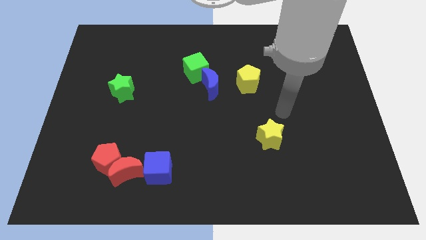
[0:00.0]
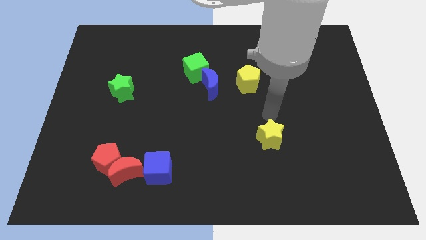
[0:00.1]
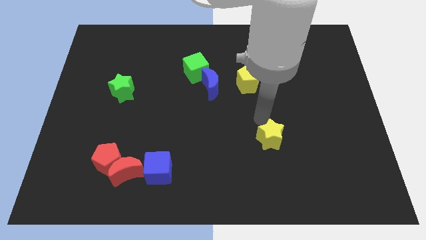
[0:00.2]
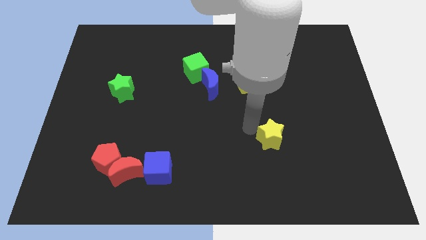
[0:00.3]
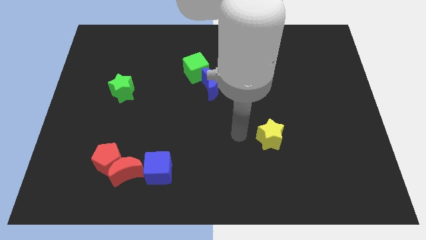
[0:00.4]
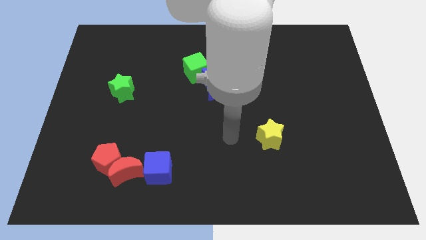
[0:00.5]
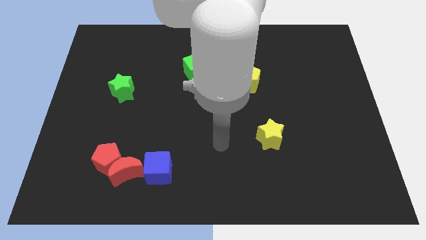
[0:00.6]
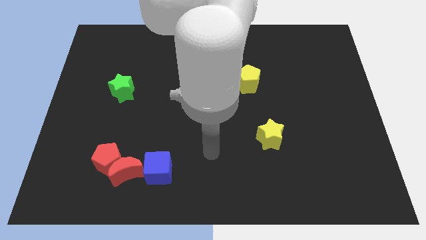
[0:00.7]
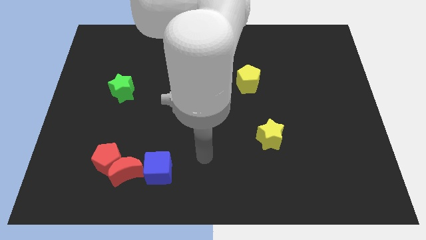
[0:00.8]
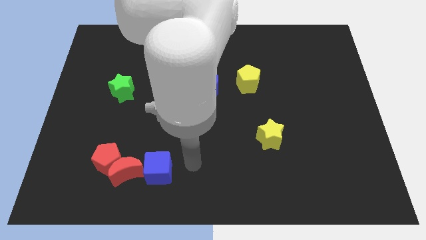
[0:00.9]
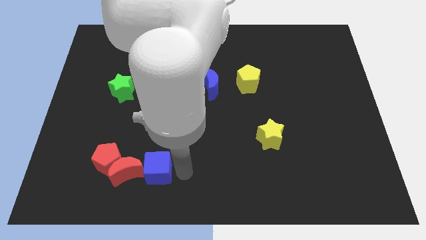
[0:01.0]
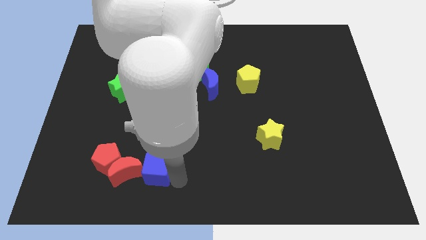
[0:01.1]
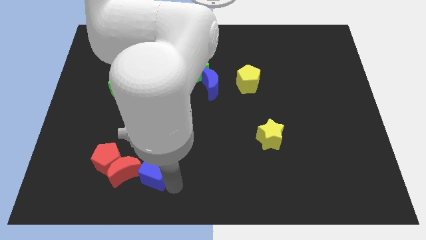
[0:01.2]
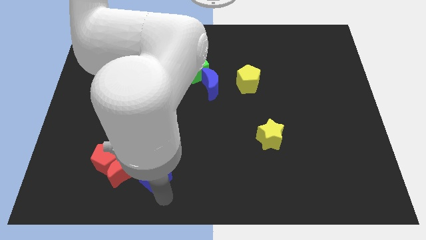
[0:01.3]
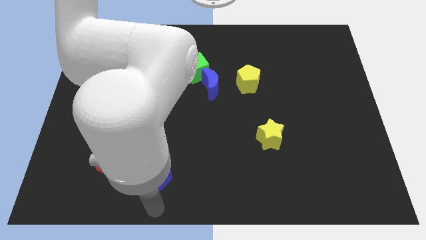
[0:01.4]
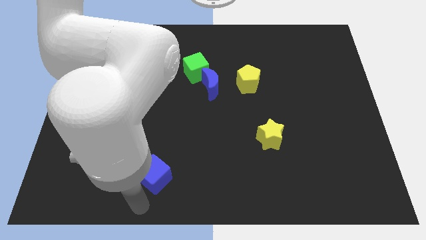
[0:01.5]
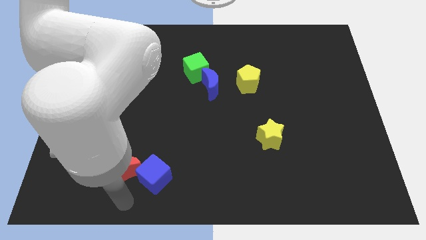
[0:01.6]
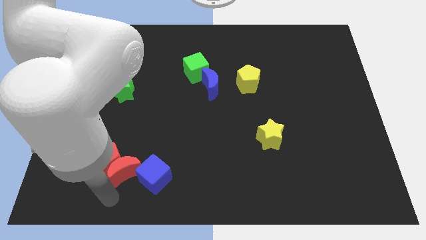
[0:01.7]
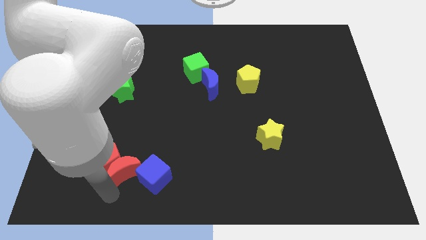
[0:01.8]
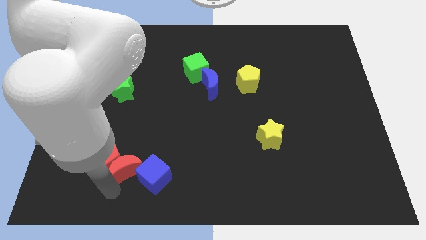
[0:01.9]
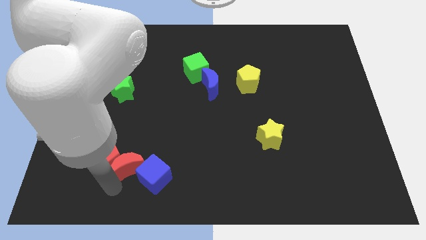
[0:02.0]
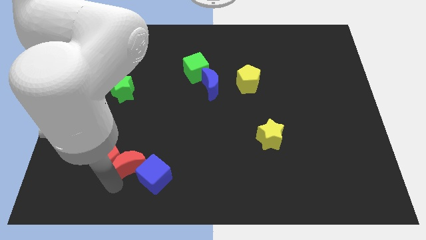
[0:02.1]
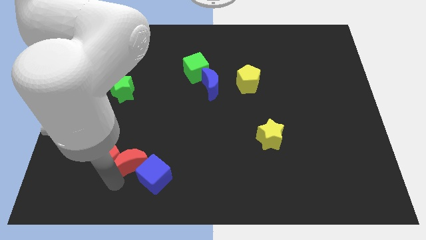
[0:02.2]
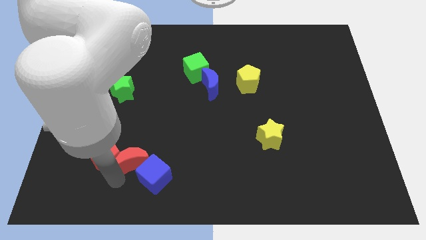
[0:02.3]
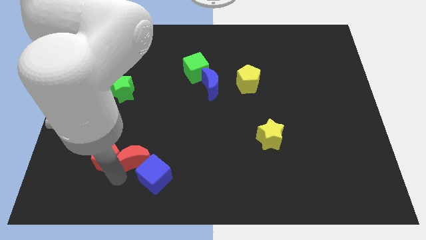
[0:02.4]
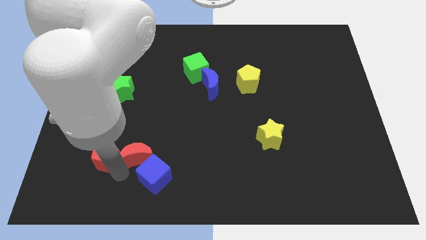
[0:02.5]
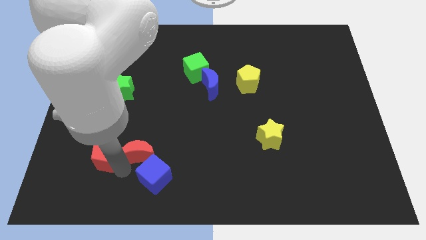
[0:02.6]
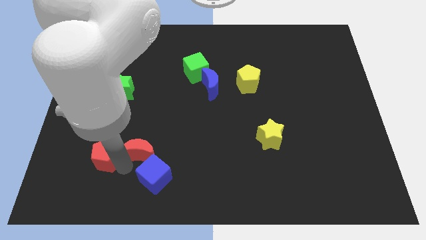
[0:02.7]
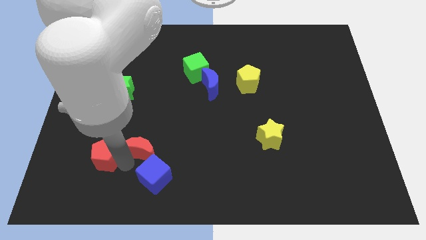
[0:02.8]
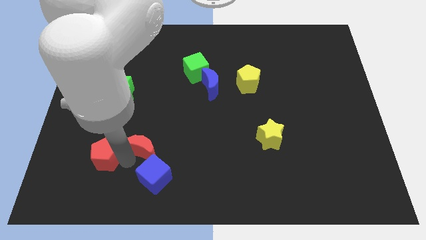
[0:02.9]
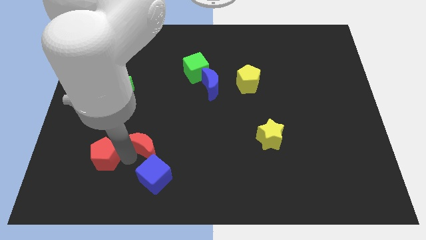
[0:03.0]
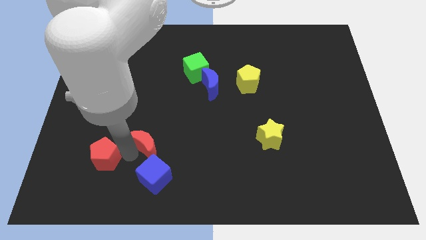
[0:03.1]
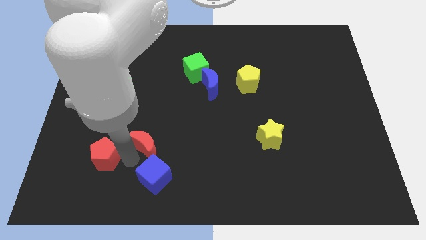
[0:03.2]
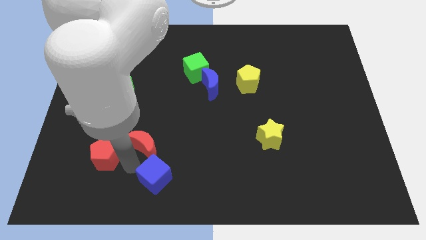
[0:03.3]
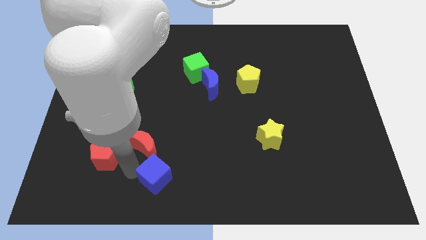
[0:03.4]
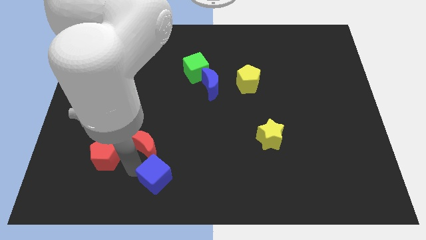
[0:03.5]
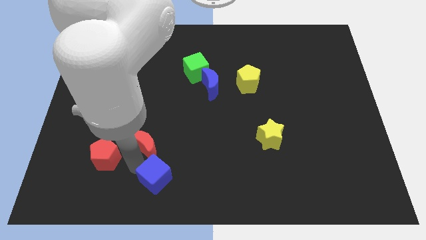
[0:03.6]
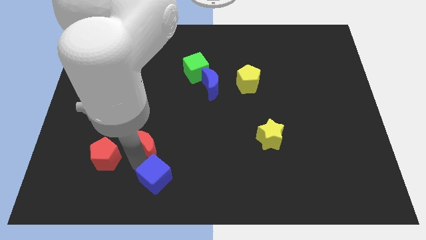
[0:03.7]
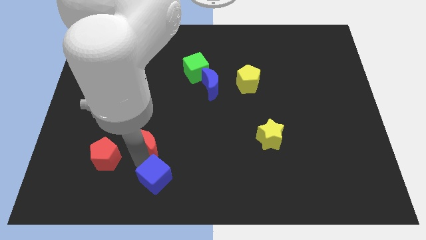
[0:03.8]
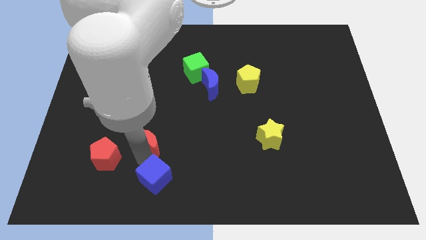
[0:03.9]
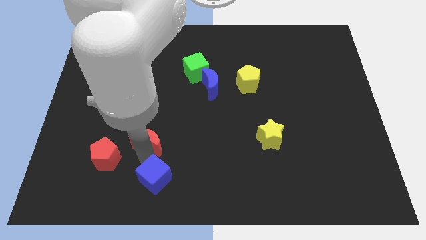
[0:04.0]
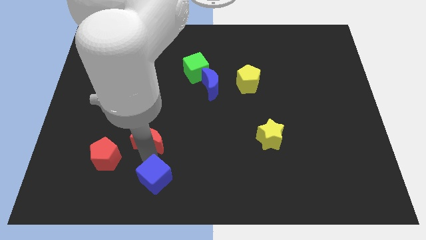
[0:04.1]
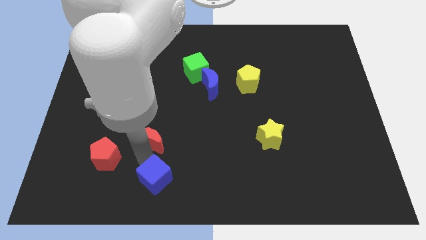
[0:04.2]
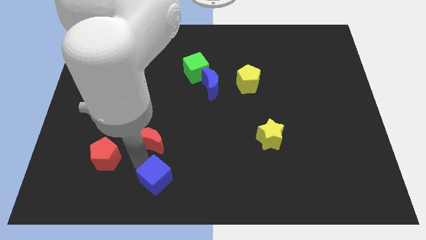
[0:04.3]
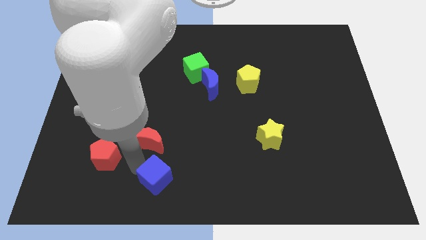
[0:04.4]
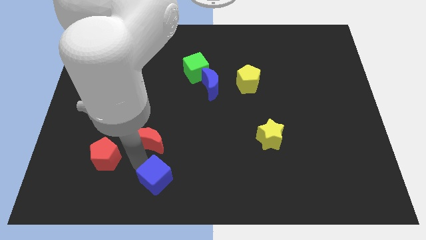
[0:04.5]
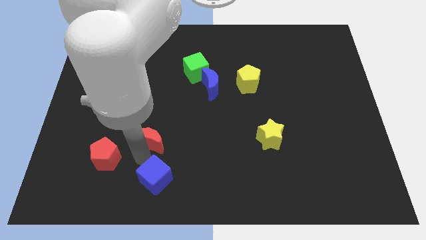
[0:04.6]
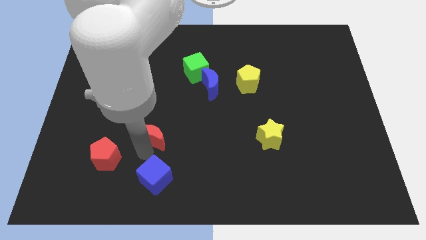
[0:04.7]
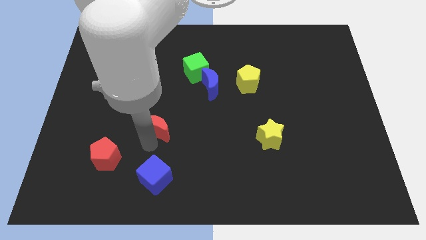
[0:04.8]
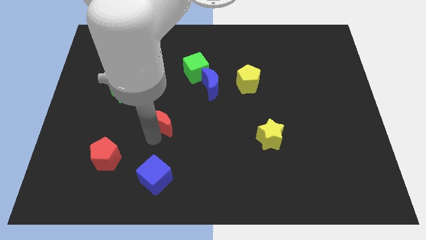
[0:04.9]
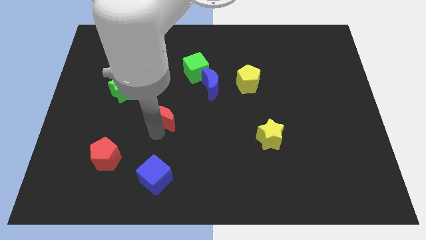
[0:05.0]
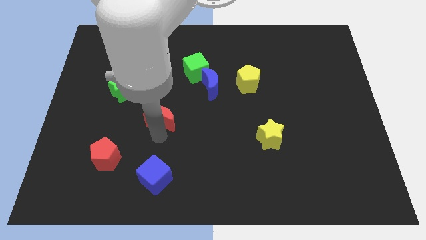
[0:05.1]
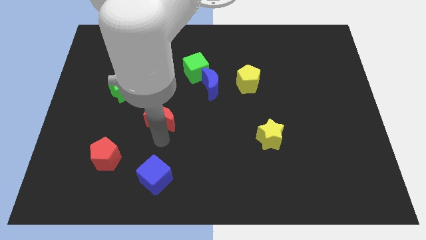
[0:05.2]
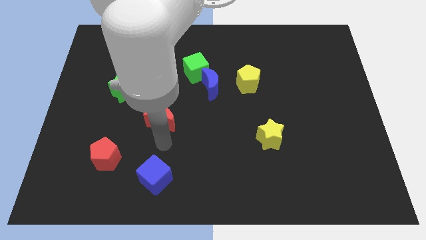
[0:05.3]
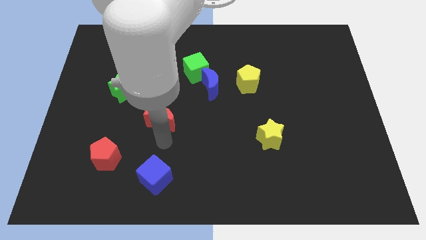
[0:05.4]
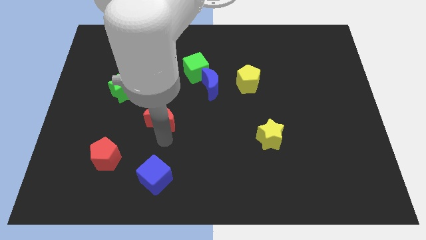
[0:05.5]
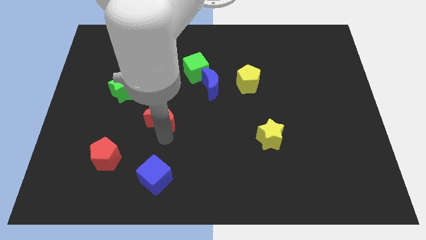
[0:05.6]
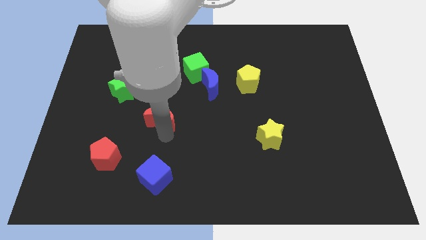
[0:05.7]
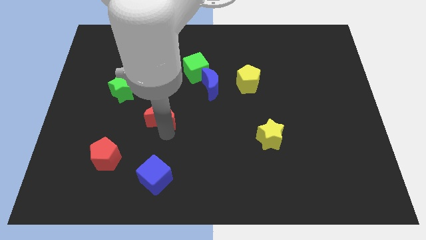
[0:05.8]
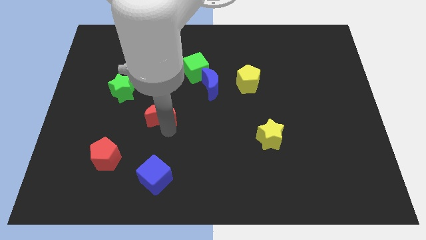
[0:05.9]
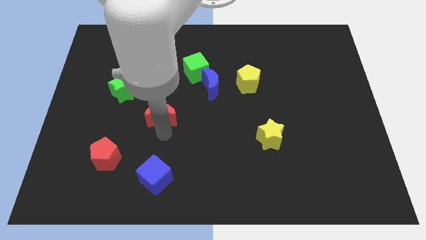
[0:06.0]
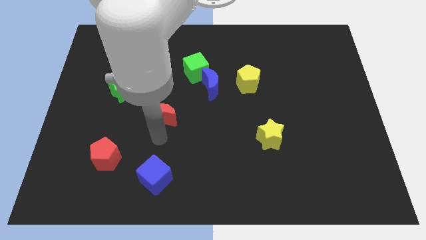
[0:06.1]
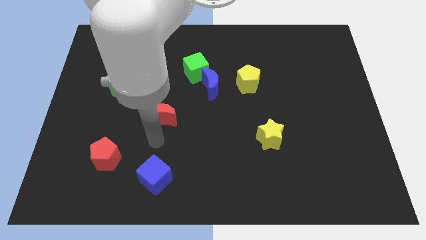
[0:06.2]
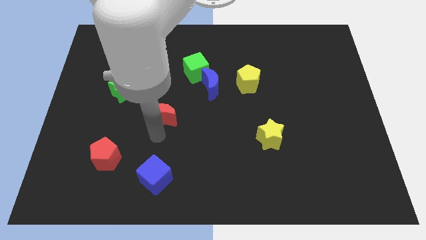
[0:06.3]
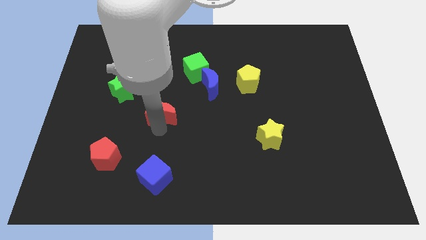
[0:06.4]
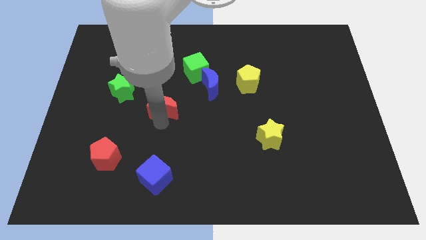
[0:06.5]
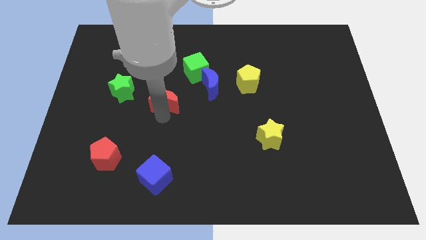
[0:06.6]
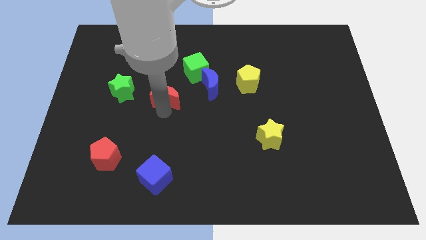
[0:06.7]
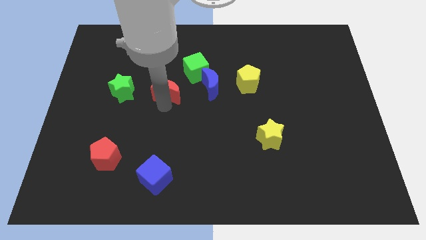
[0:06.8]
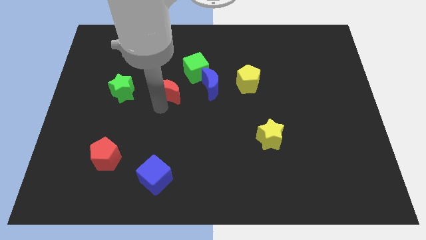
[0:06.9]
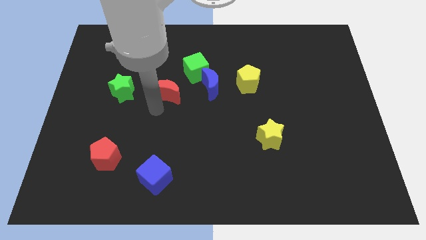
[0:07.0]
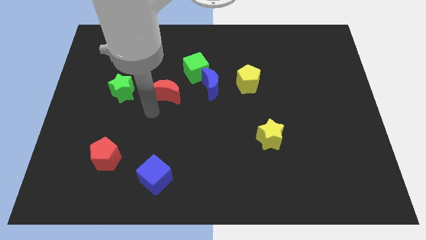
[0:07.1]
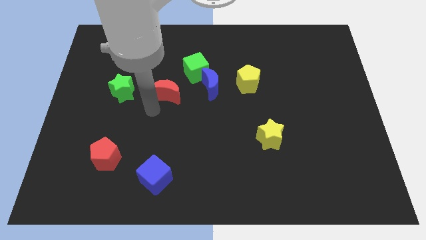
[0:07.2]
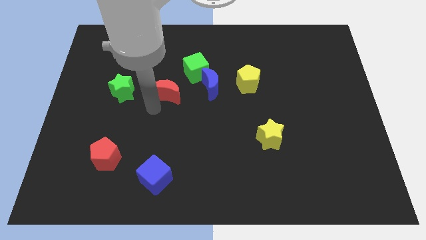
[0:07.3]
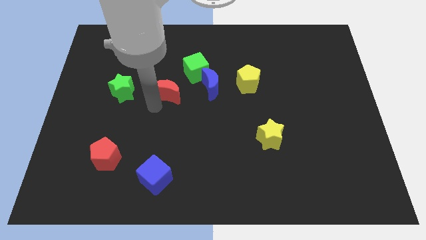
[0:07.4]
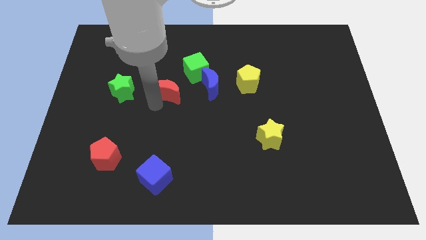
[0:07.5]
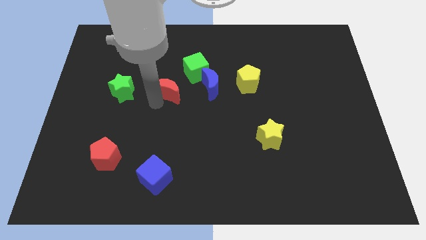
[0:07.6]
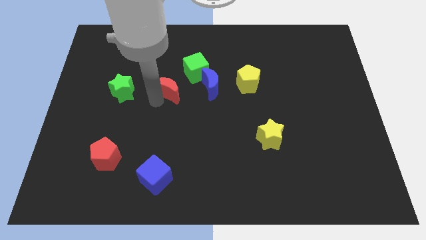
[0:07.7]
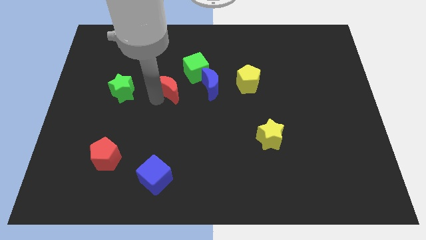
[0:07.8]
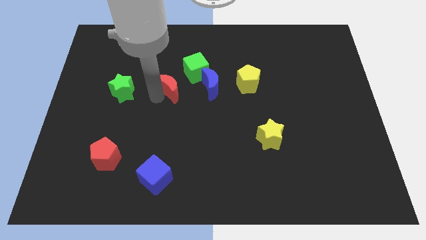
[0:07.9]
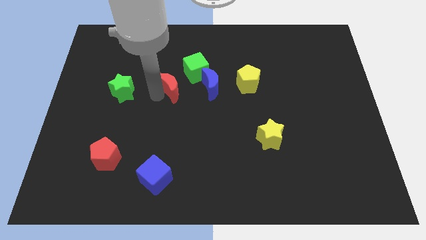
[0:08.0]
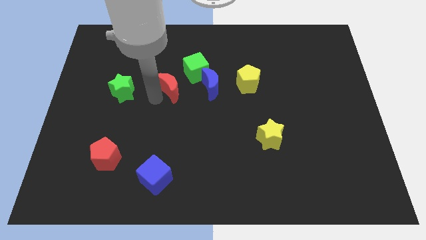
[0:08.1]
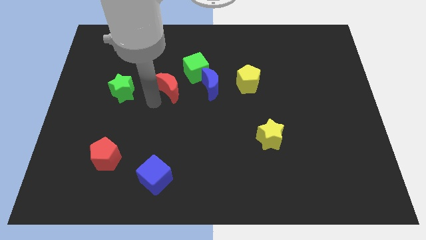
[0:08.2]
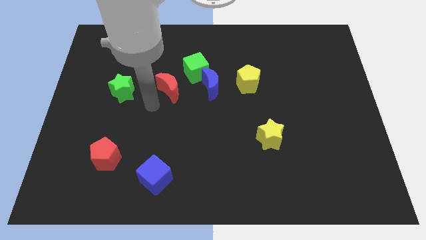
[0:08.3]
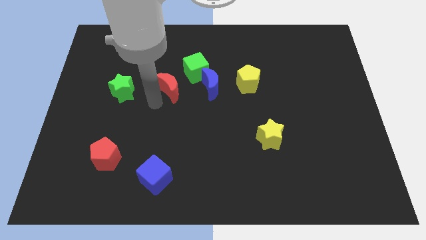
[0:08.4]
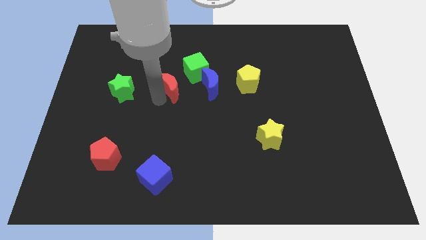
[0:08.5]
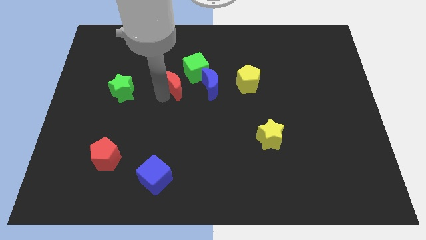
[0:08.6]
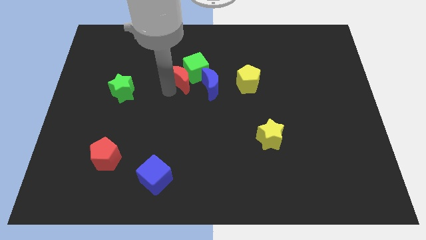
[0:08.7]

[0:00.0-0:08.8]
move the red moon to the green cube
